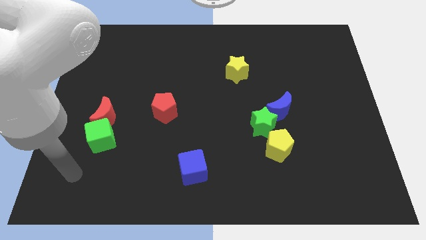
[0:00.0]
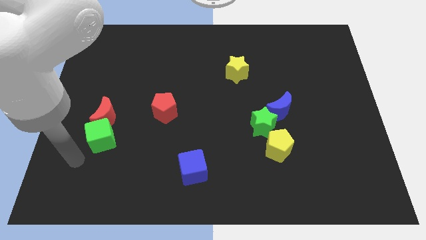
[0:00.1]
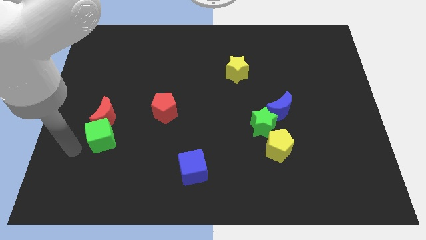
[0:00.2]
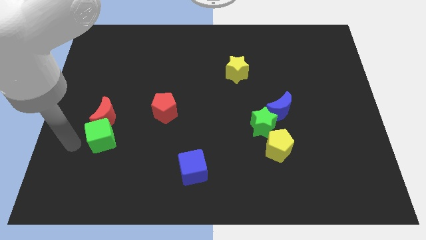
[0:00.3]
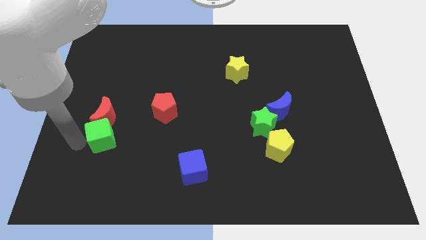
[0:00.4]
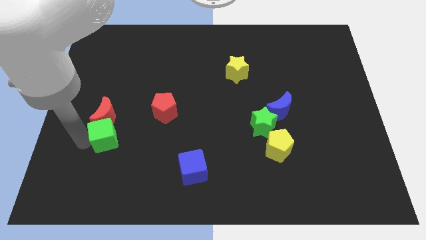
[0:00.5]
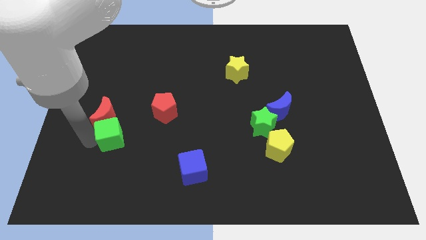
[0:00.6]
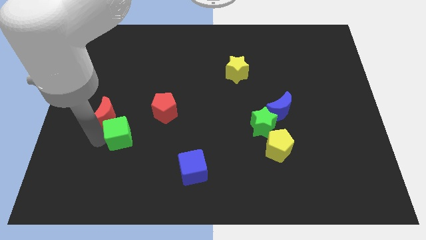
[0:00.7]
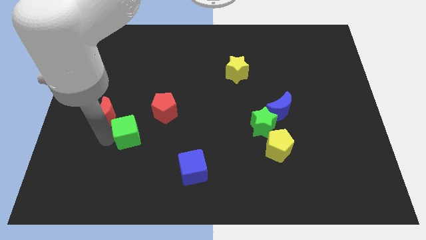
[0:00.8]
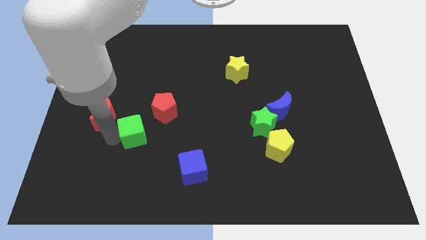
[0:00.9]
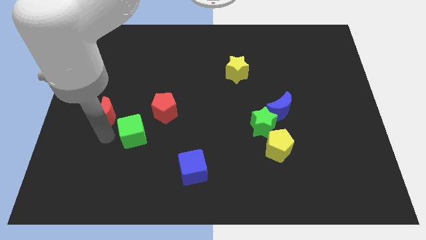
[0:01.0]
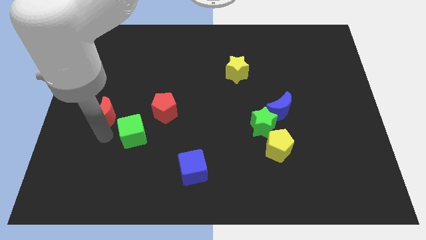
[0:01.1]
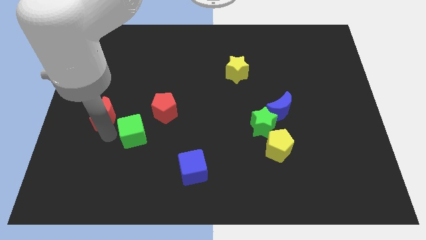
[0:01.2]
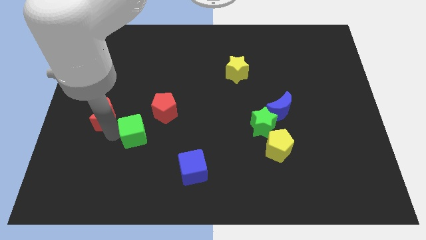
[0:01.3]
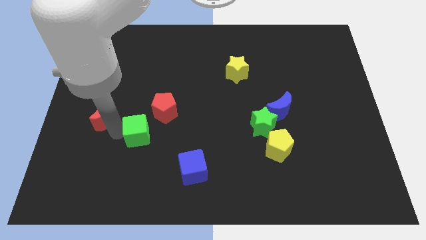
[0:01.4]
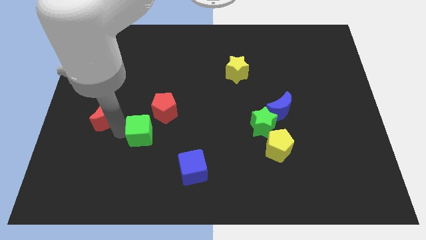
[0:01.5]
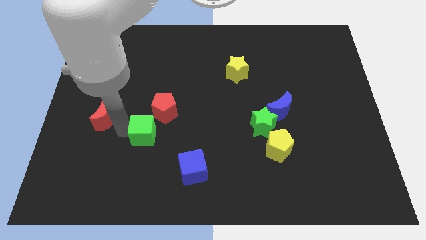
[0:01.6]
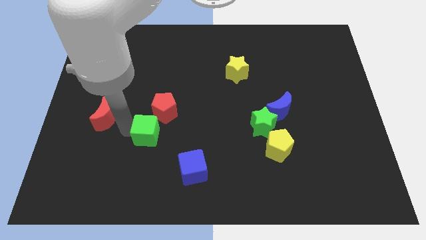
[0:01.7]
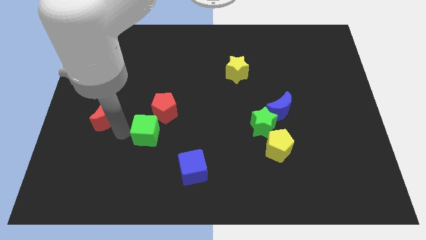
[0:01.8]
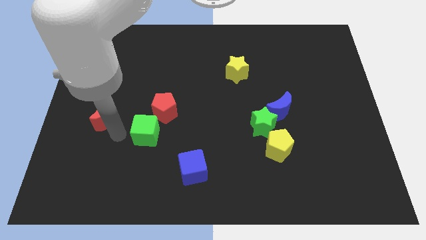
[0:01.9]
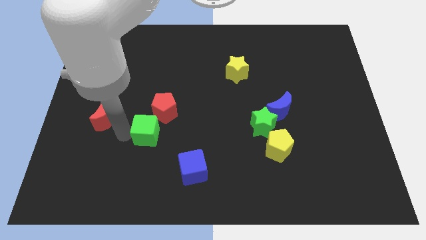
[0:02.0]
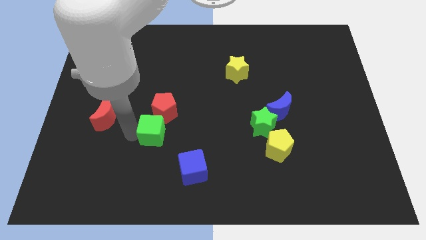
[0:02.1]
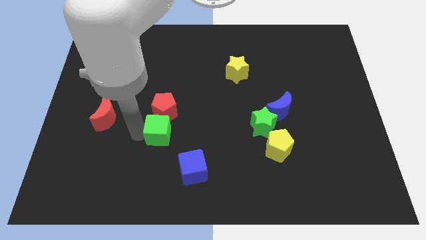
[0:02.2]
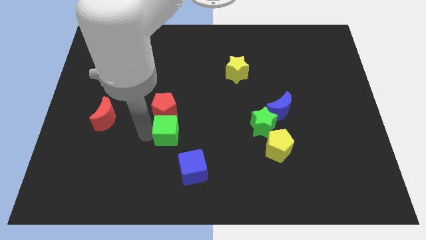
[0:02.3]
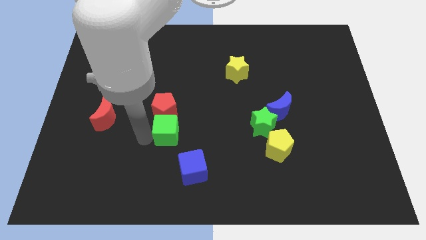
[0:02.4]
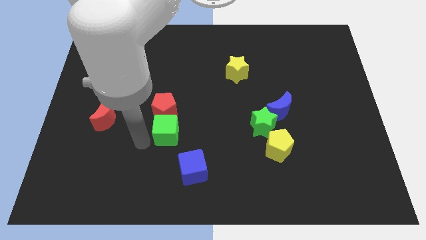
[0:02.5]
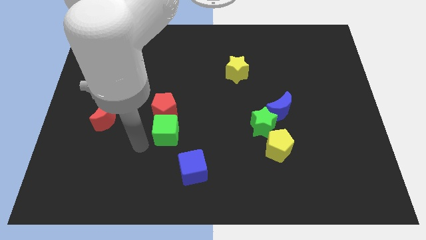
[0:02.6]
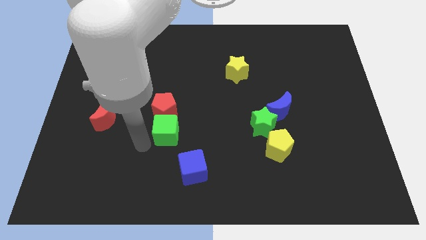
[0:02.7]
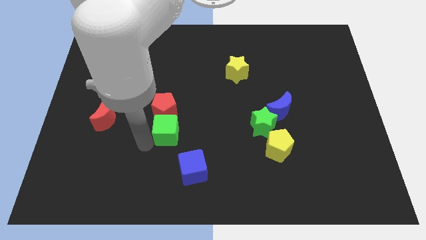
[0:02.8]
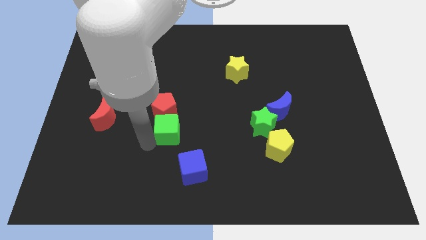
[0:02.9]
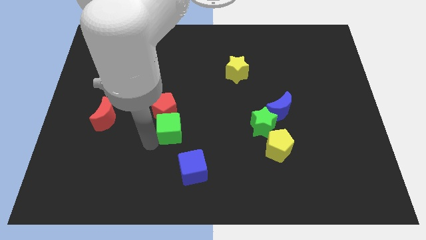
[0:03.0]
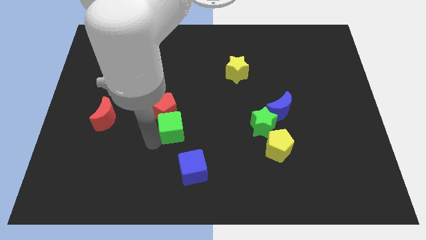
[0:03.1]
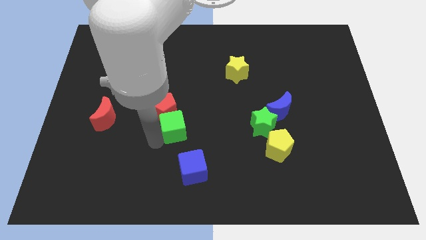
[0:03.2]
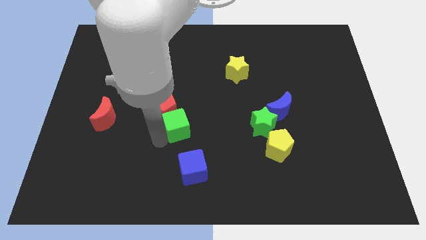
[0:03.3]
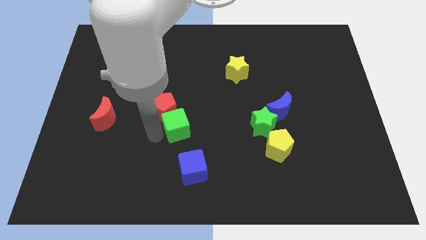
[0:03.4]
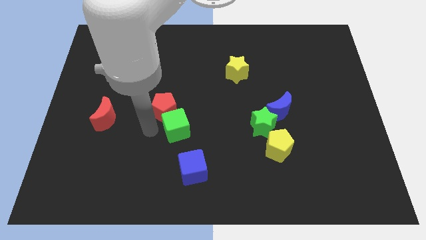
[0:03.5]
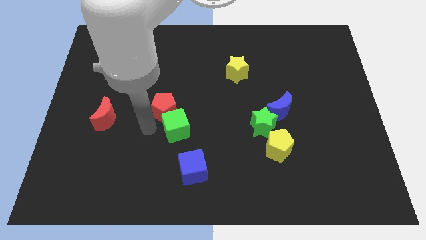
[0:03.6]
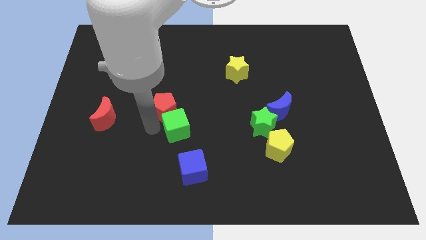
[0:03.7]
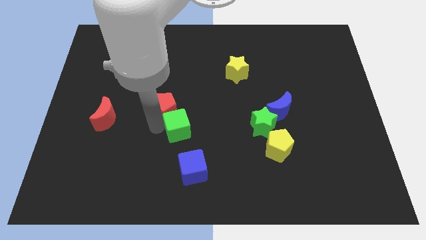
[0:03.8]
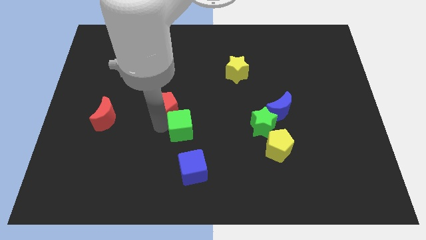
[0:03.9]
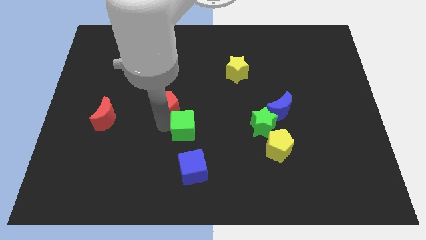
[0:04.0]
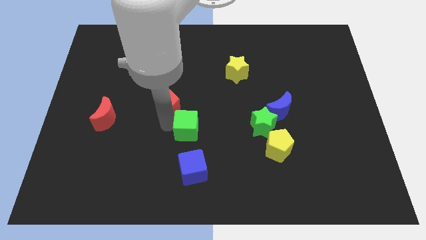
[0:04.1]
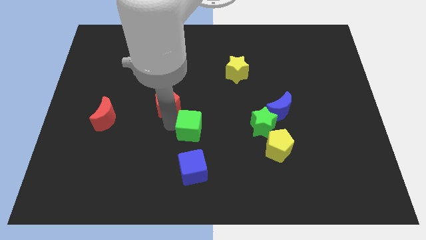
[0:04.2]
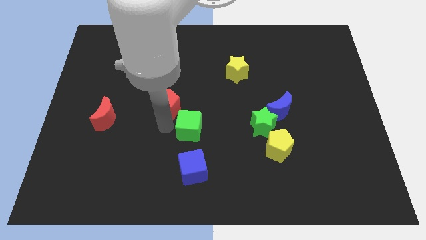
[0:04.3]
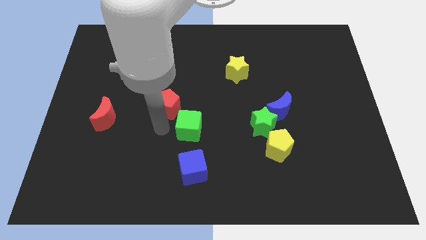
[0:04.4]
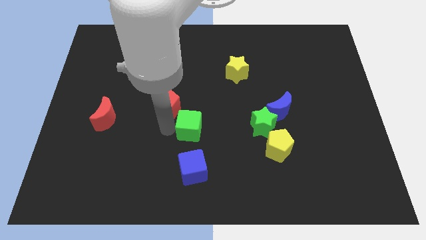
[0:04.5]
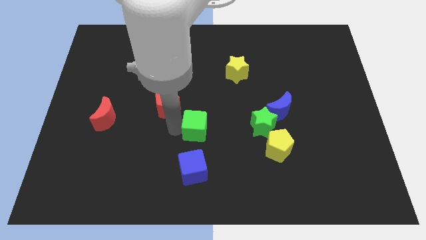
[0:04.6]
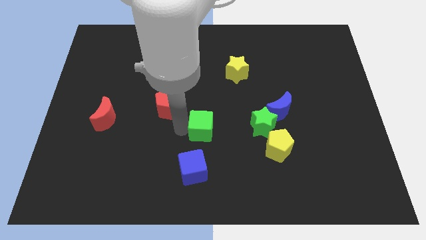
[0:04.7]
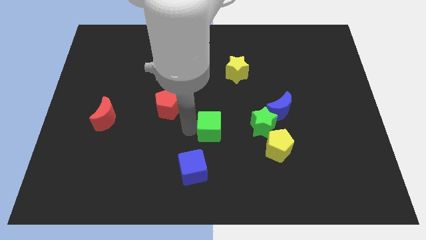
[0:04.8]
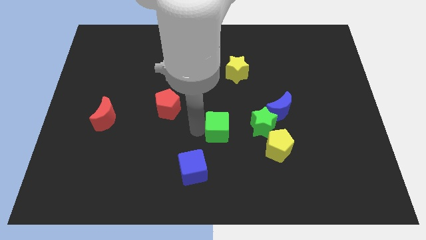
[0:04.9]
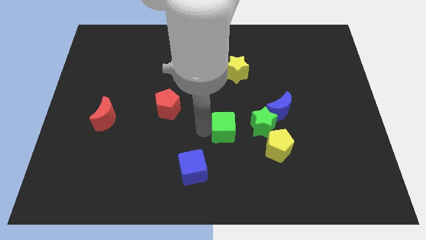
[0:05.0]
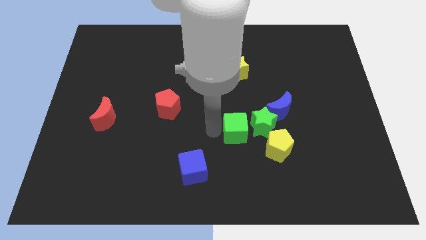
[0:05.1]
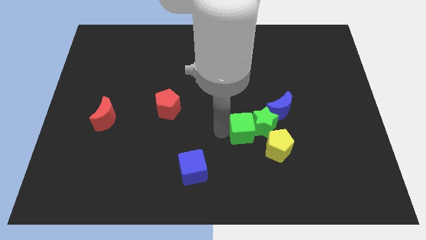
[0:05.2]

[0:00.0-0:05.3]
put the green cube to the green star

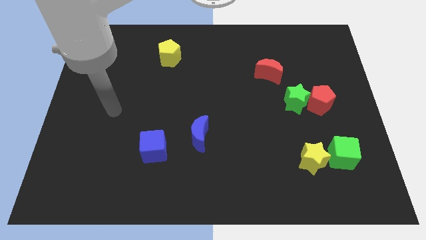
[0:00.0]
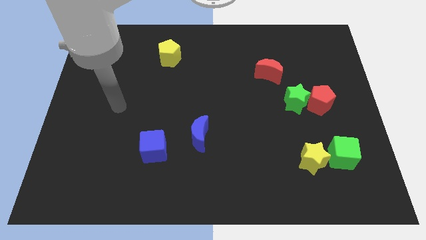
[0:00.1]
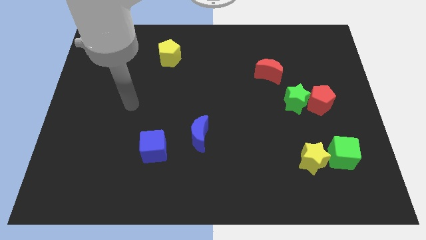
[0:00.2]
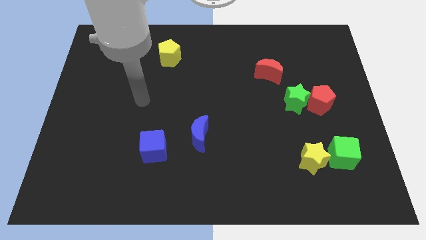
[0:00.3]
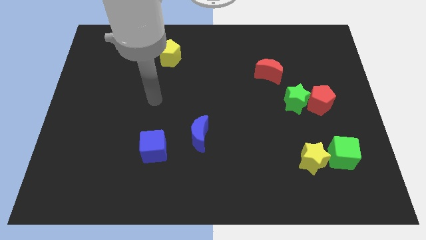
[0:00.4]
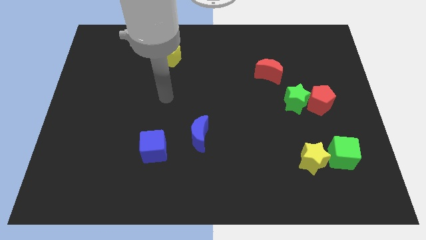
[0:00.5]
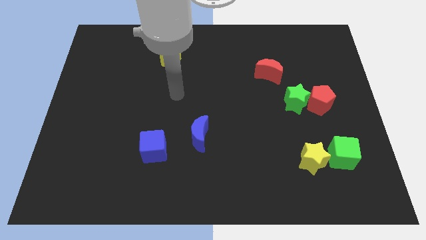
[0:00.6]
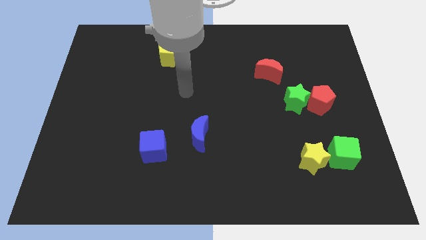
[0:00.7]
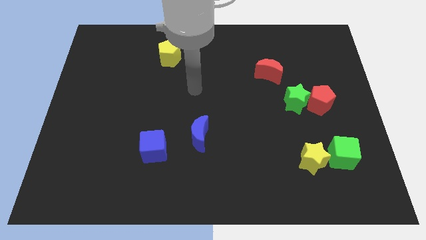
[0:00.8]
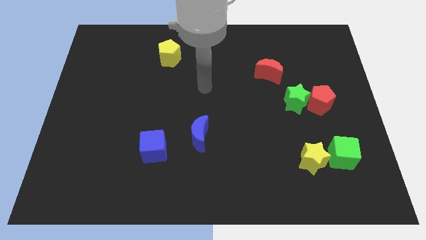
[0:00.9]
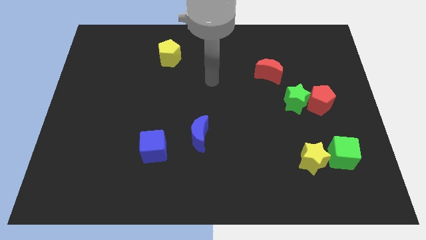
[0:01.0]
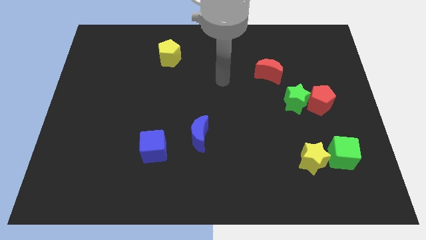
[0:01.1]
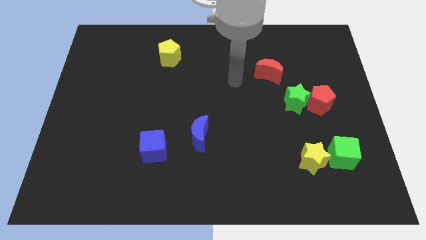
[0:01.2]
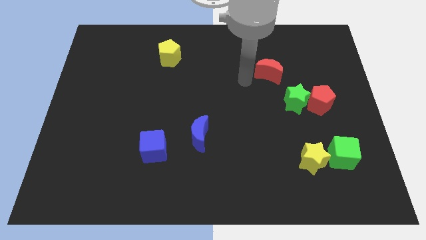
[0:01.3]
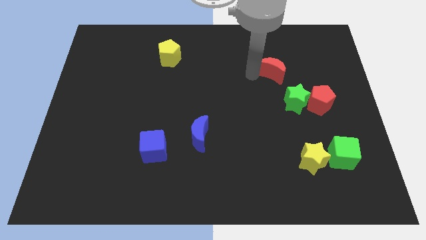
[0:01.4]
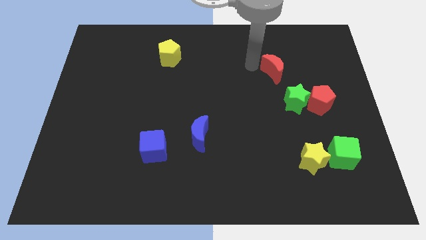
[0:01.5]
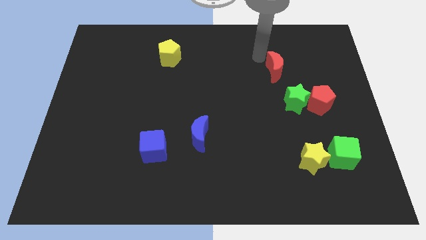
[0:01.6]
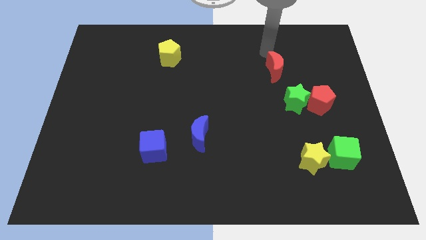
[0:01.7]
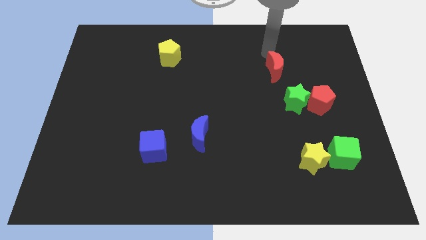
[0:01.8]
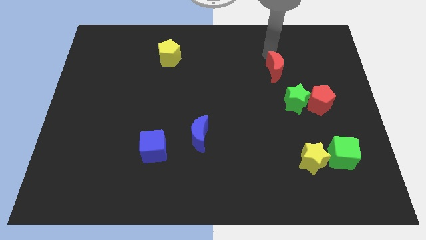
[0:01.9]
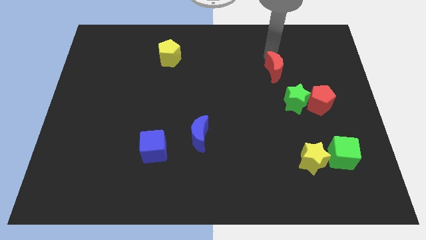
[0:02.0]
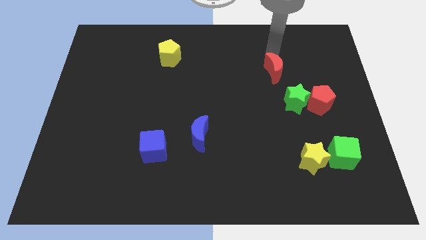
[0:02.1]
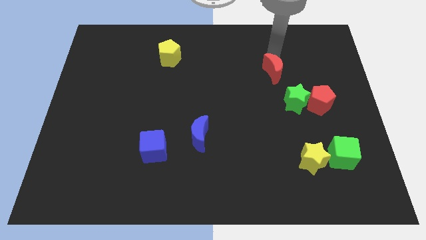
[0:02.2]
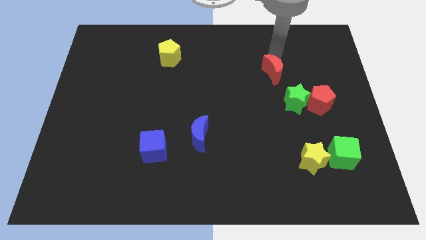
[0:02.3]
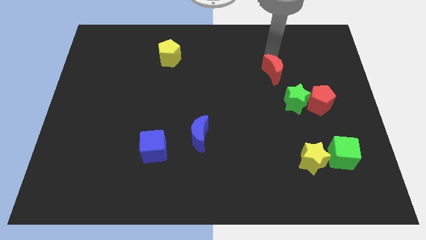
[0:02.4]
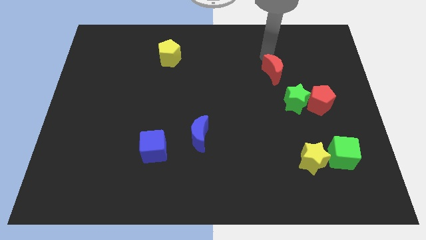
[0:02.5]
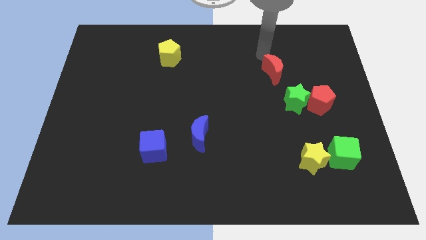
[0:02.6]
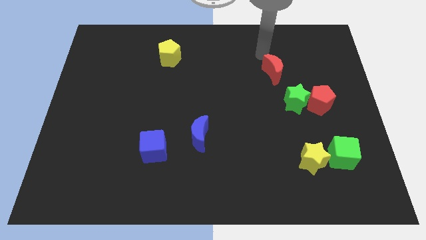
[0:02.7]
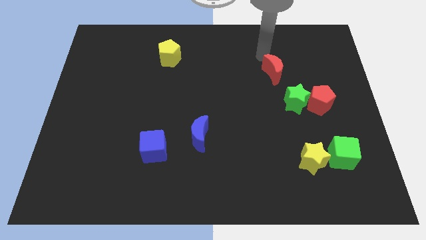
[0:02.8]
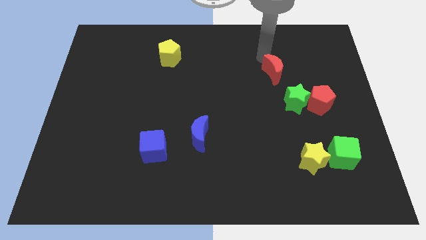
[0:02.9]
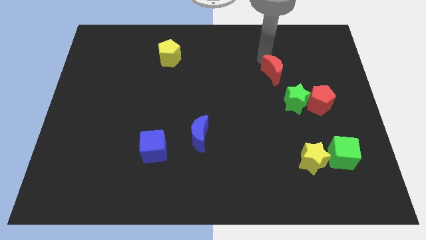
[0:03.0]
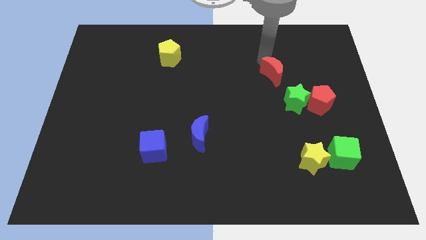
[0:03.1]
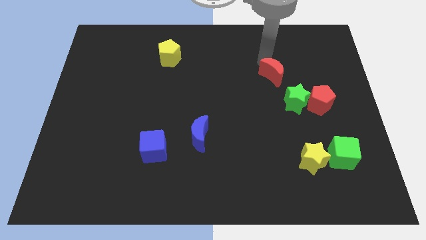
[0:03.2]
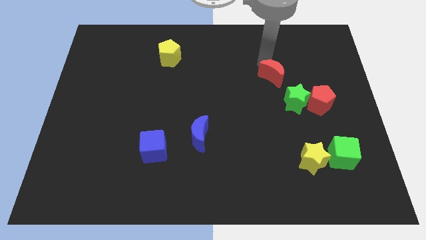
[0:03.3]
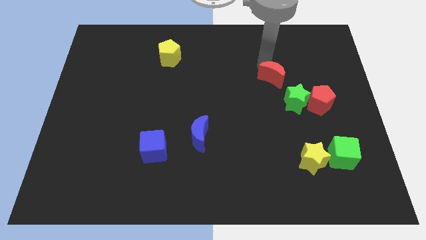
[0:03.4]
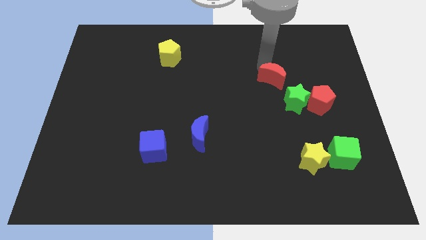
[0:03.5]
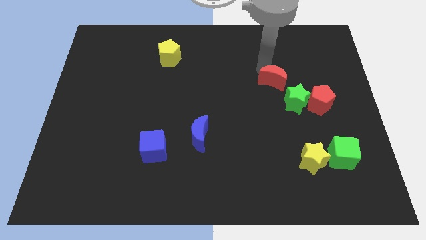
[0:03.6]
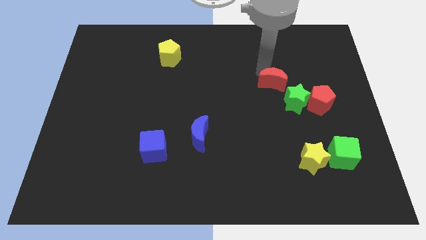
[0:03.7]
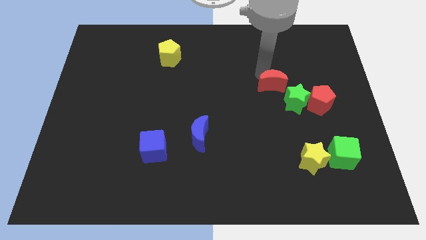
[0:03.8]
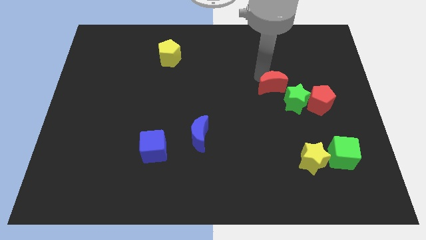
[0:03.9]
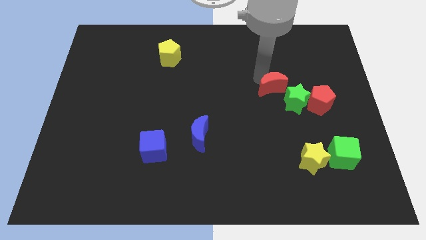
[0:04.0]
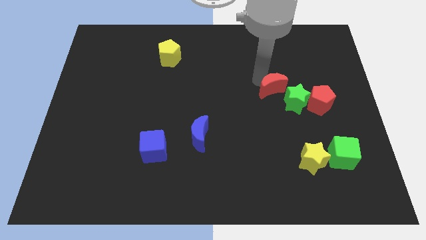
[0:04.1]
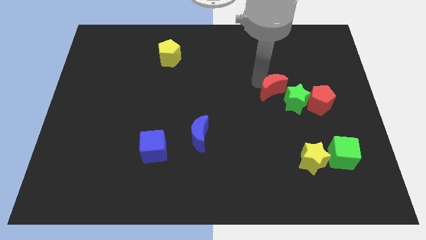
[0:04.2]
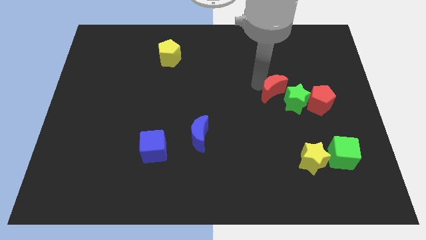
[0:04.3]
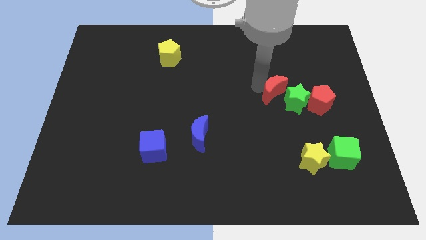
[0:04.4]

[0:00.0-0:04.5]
slide the red moon next to the green star
